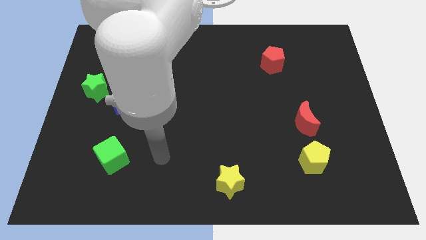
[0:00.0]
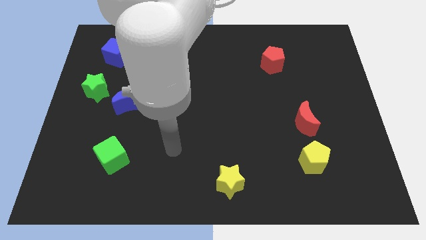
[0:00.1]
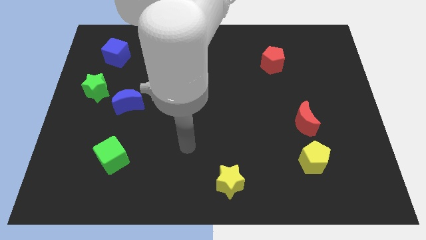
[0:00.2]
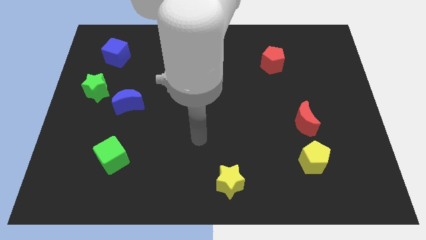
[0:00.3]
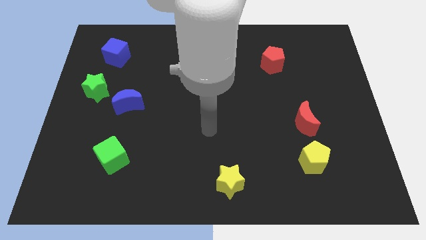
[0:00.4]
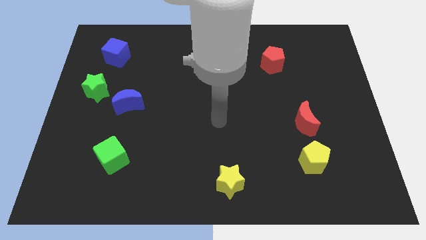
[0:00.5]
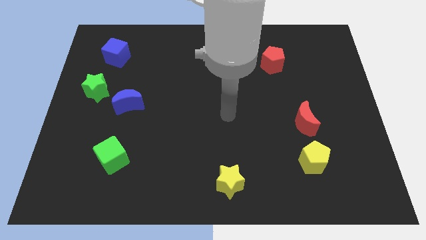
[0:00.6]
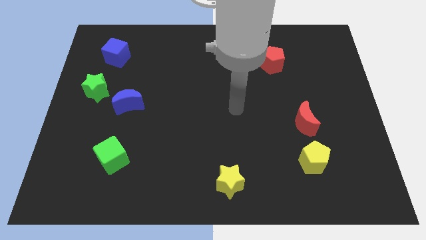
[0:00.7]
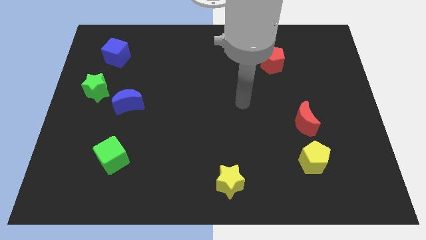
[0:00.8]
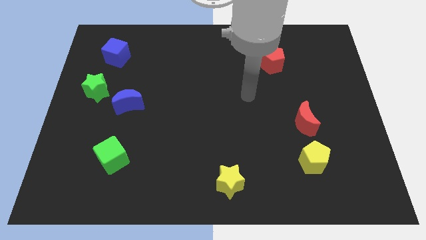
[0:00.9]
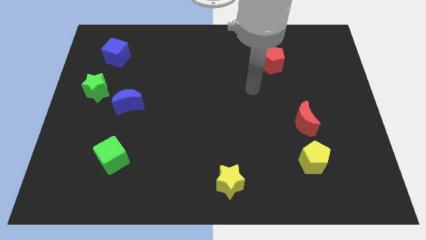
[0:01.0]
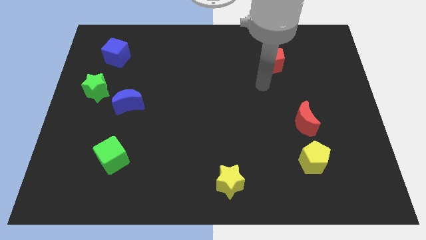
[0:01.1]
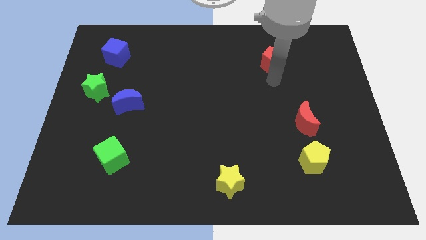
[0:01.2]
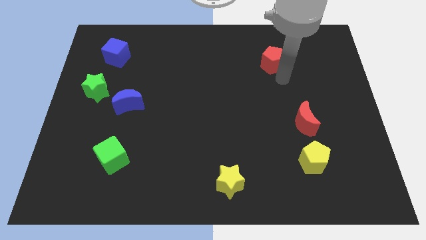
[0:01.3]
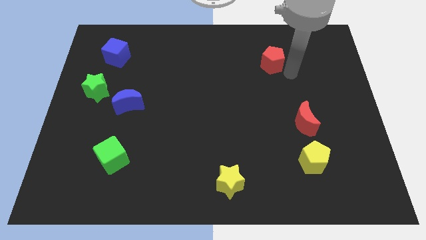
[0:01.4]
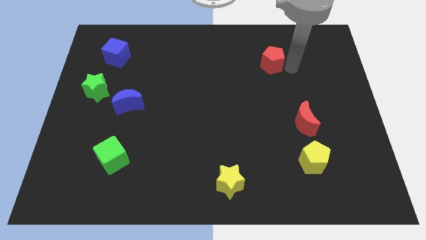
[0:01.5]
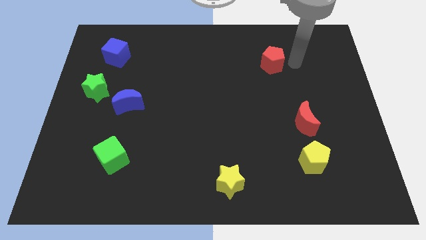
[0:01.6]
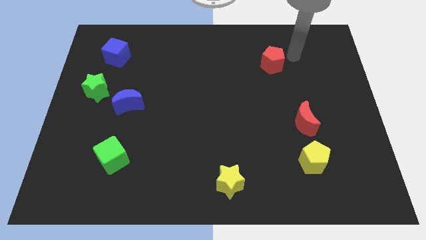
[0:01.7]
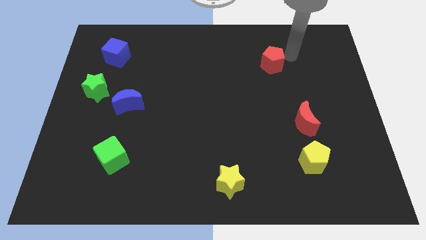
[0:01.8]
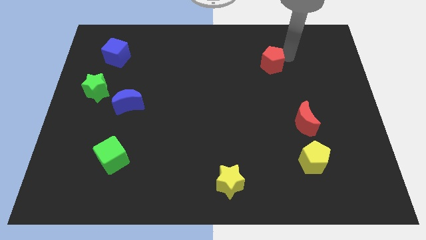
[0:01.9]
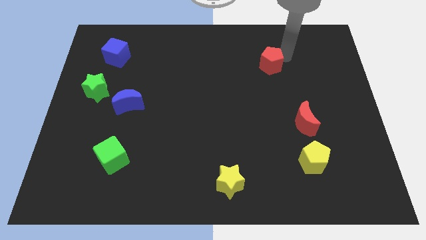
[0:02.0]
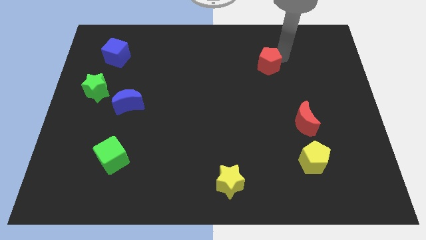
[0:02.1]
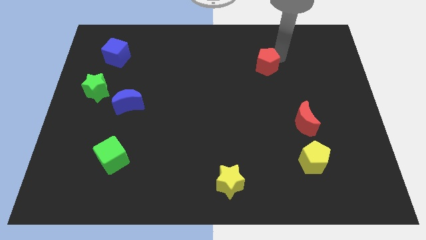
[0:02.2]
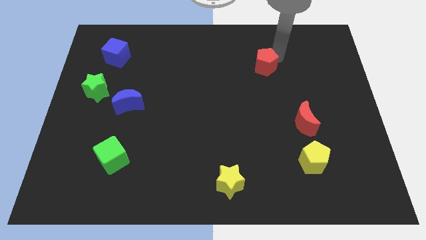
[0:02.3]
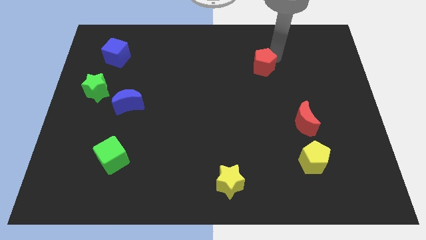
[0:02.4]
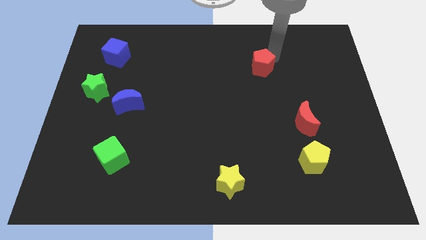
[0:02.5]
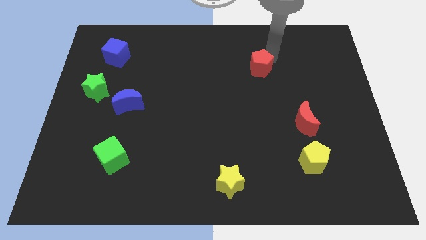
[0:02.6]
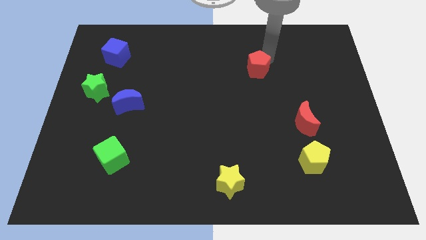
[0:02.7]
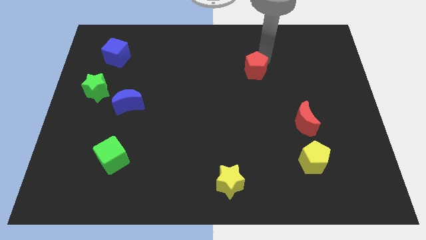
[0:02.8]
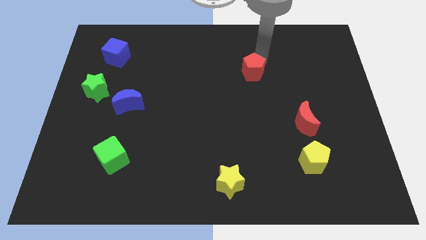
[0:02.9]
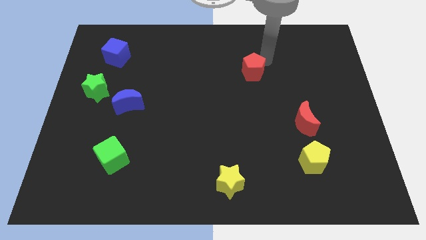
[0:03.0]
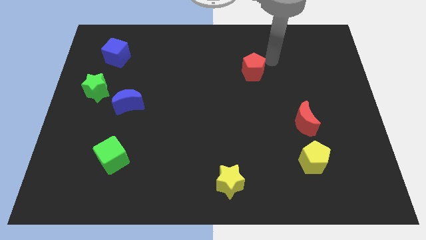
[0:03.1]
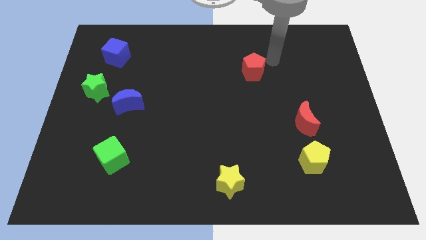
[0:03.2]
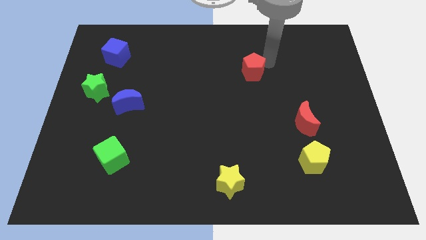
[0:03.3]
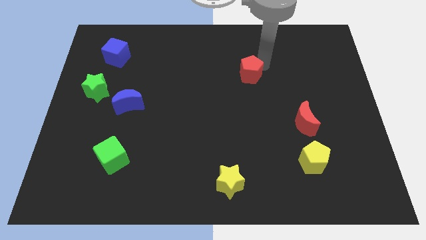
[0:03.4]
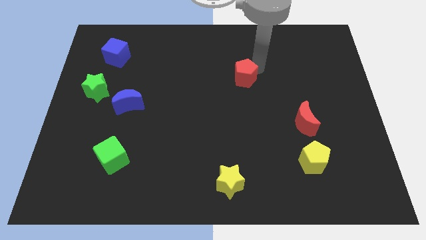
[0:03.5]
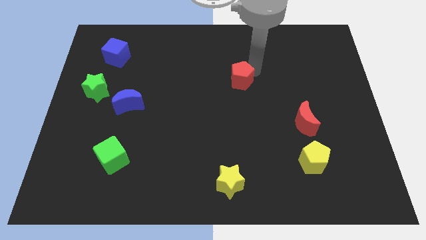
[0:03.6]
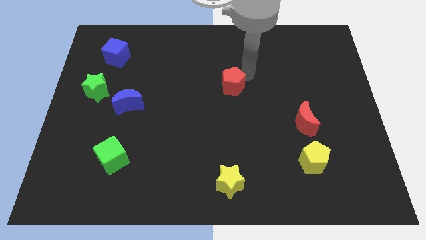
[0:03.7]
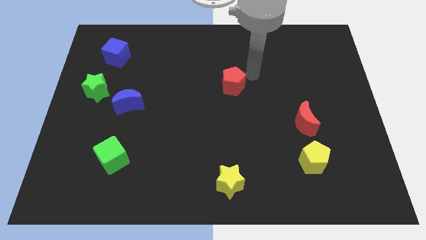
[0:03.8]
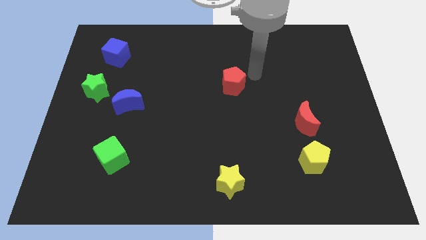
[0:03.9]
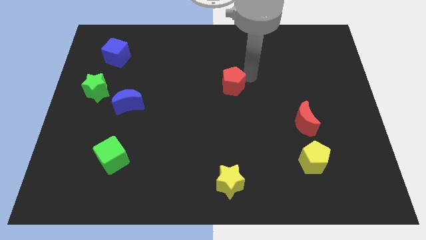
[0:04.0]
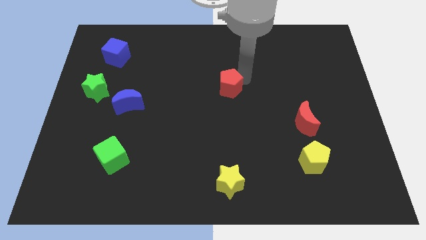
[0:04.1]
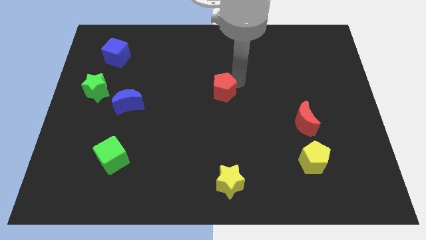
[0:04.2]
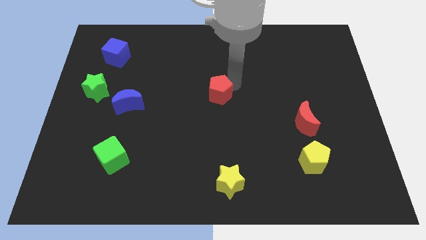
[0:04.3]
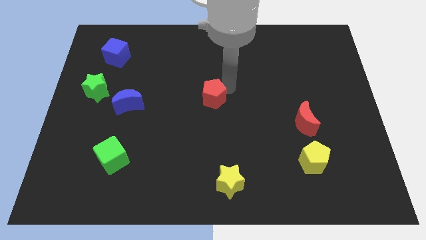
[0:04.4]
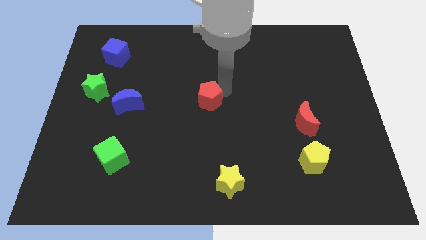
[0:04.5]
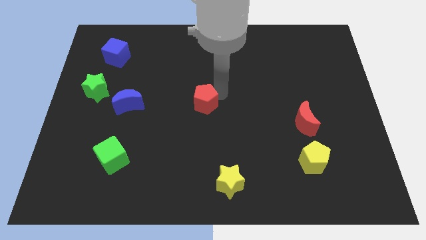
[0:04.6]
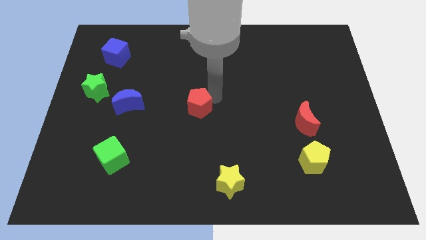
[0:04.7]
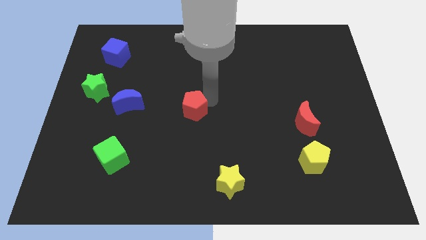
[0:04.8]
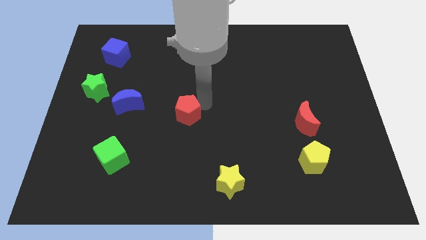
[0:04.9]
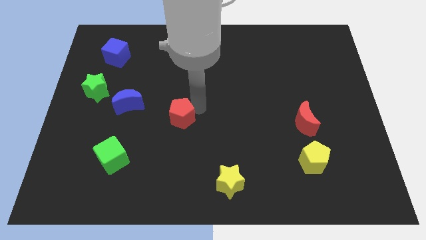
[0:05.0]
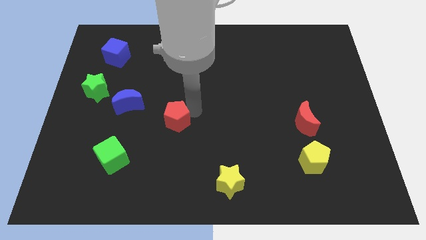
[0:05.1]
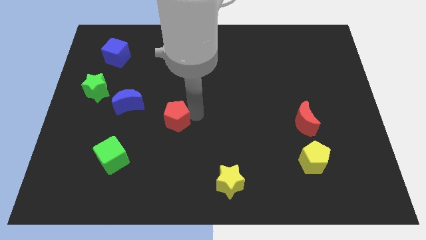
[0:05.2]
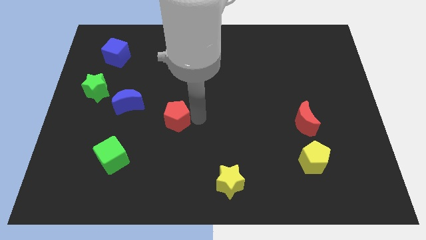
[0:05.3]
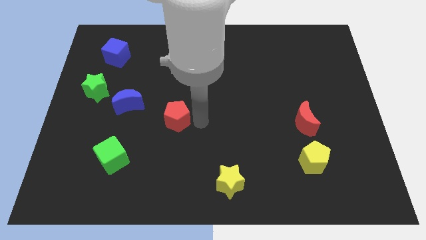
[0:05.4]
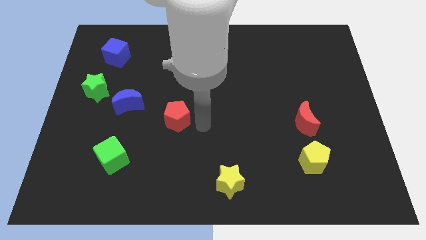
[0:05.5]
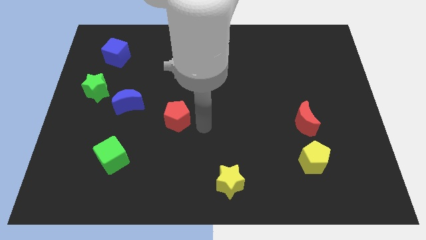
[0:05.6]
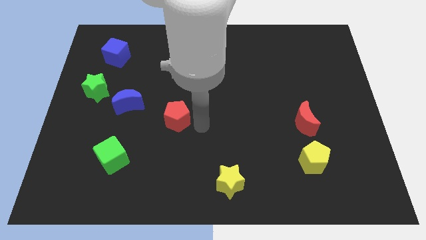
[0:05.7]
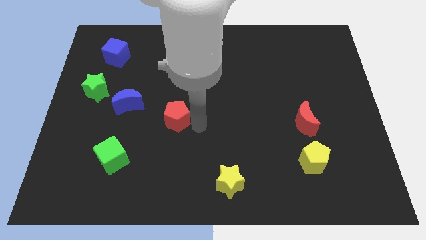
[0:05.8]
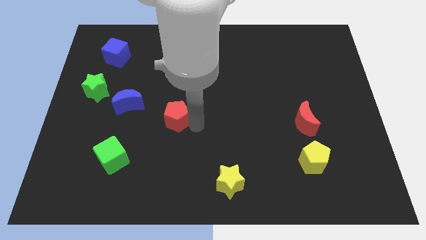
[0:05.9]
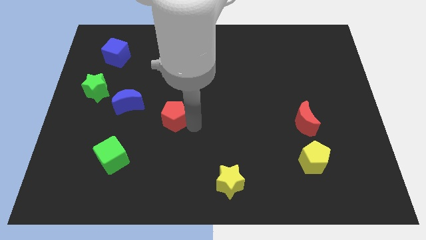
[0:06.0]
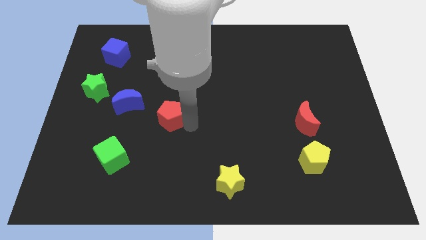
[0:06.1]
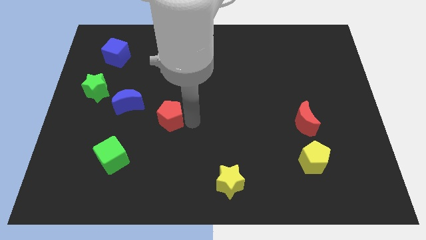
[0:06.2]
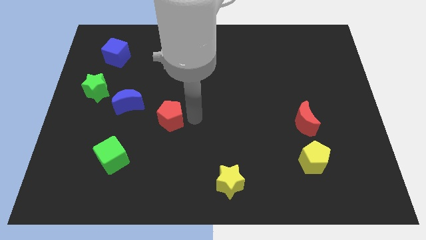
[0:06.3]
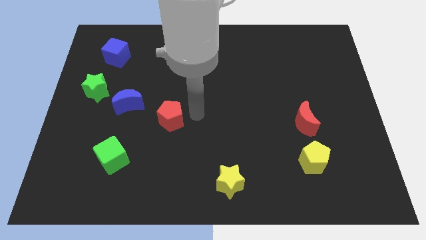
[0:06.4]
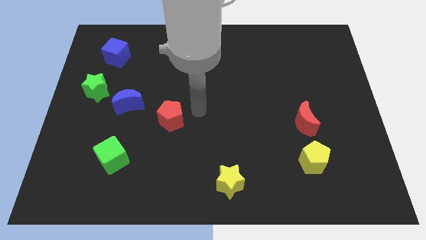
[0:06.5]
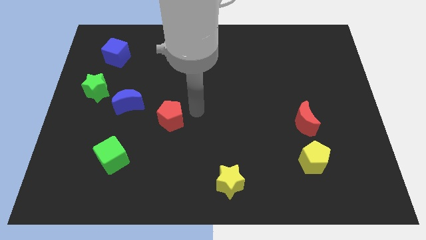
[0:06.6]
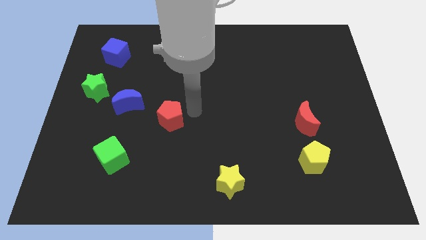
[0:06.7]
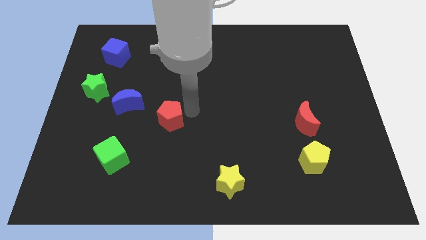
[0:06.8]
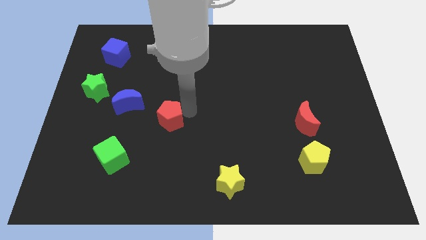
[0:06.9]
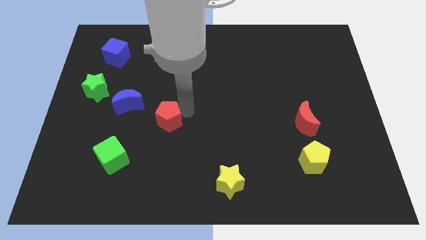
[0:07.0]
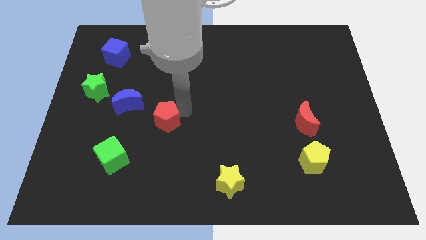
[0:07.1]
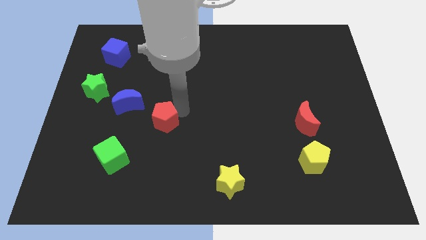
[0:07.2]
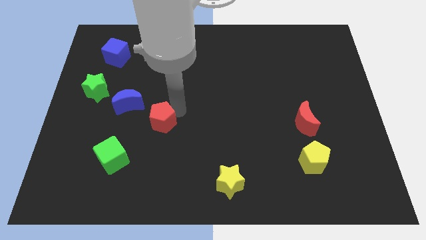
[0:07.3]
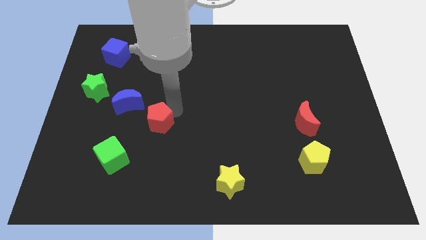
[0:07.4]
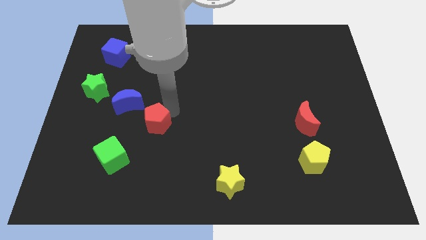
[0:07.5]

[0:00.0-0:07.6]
put the red pentagon diagonally up and to the right of the green cube
